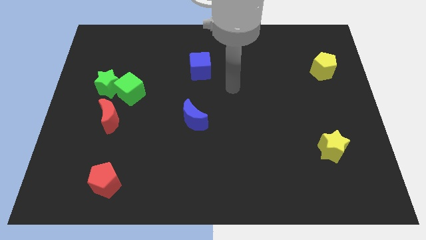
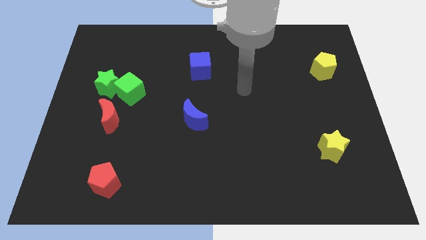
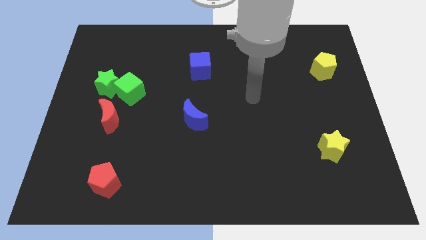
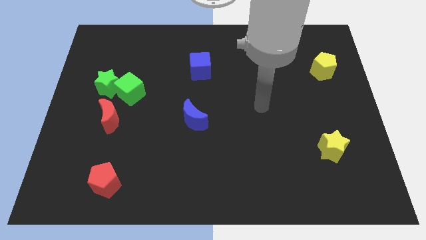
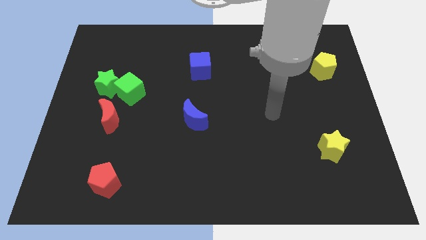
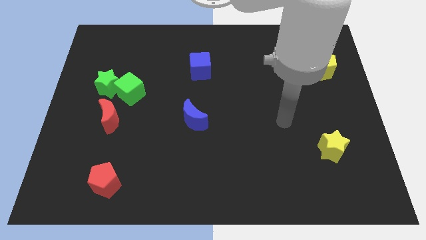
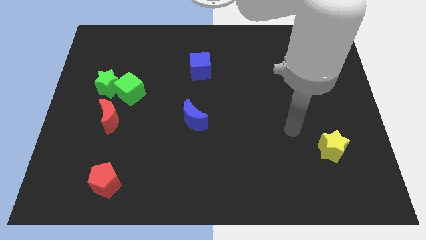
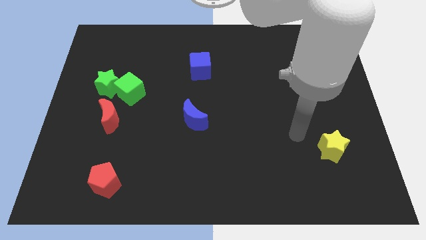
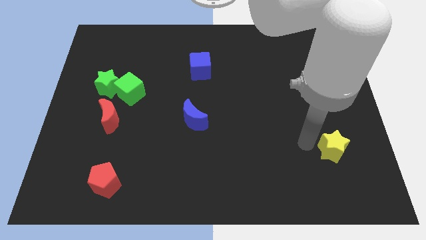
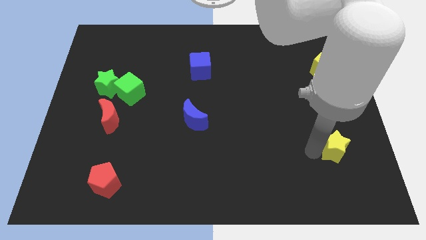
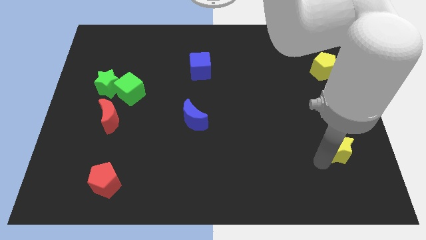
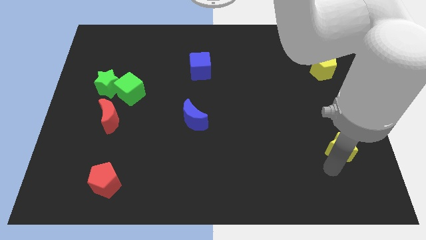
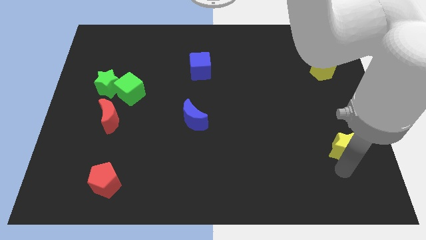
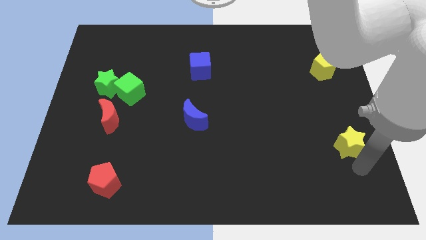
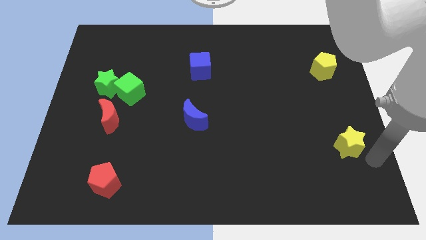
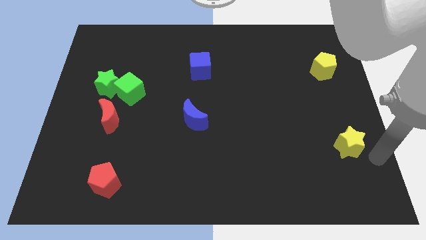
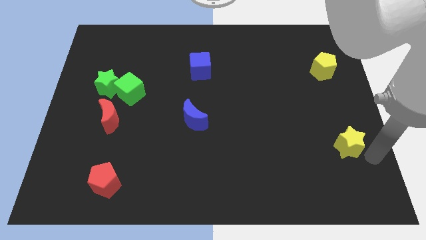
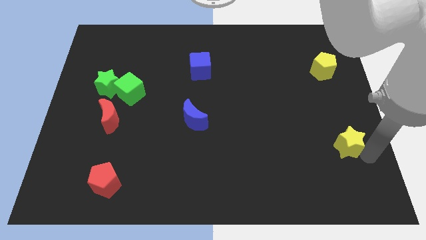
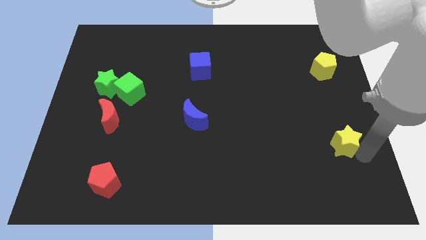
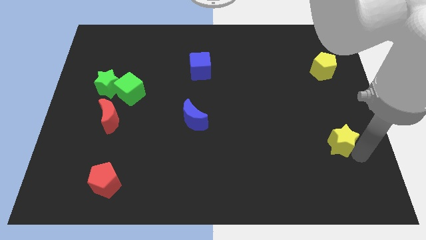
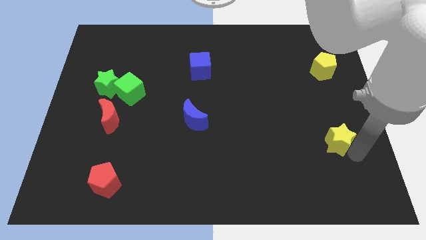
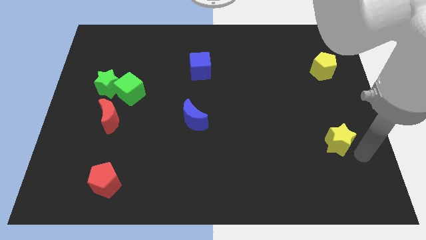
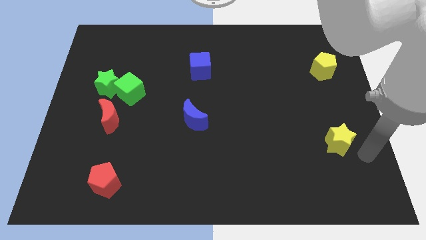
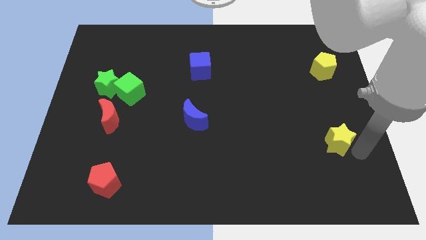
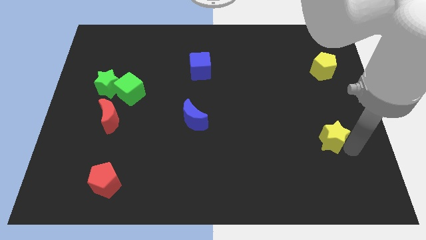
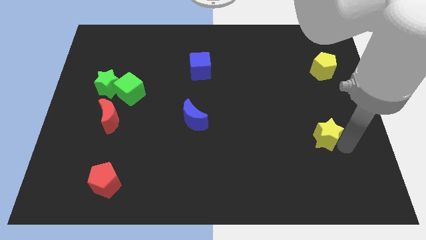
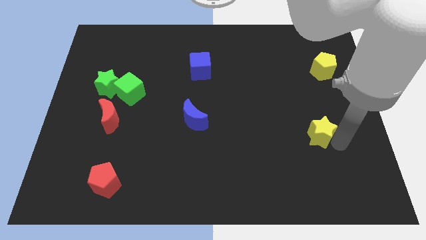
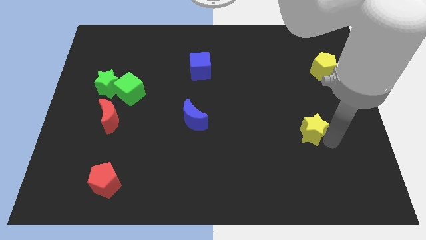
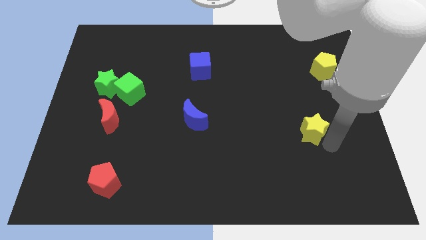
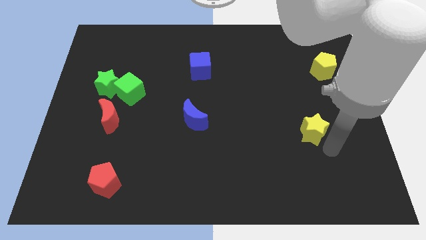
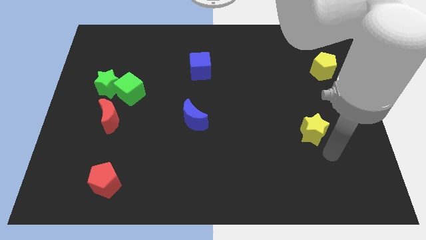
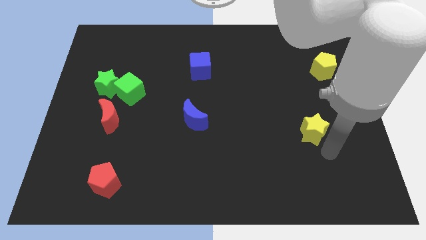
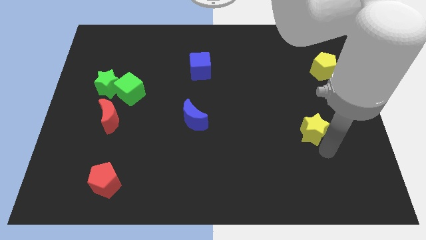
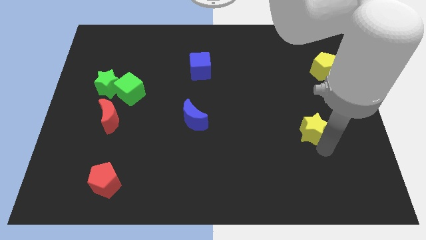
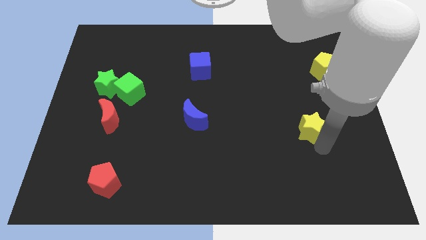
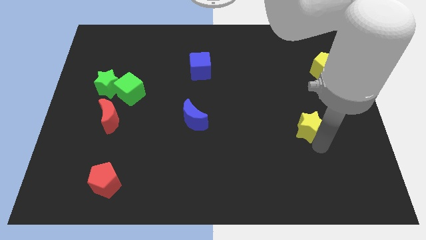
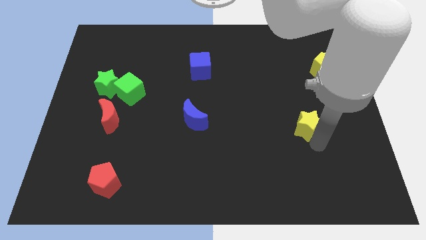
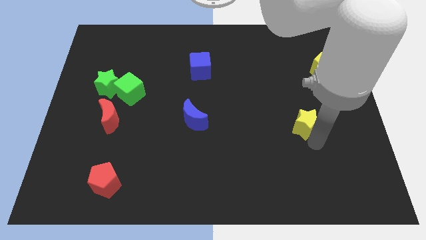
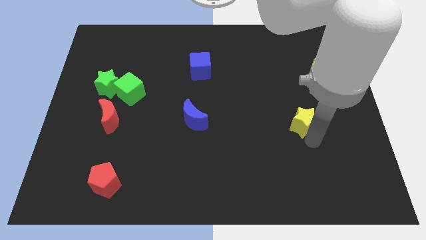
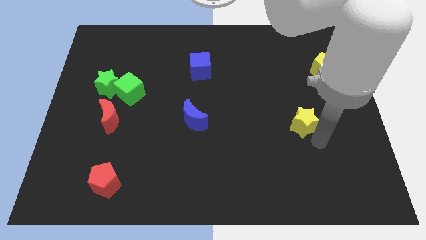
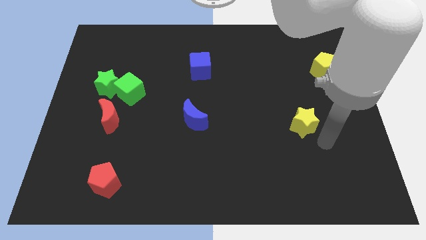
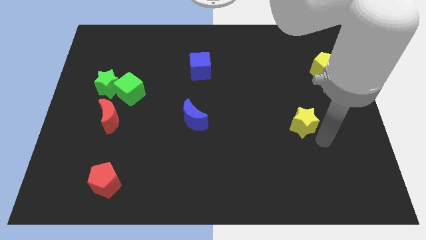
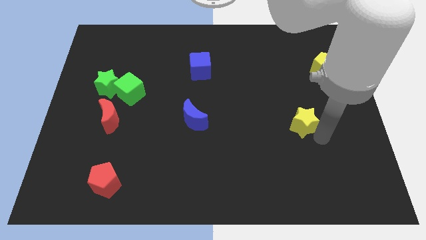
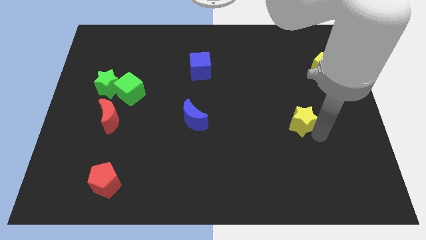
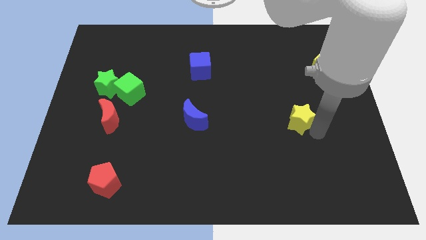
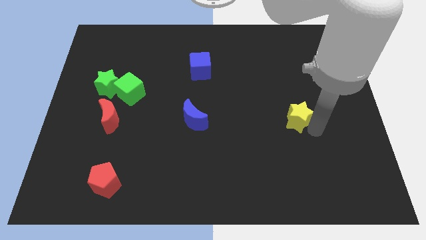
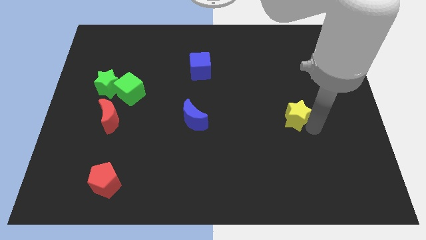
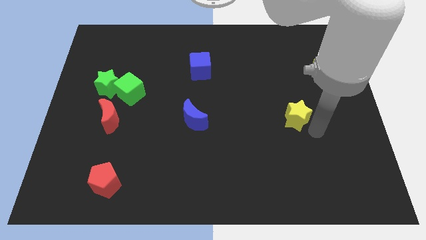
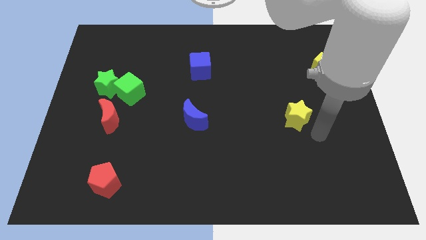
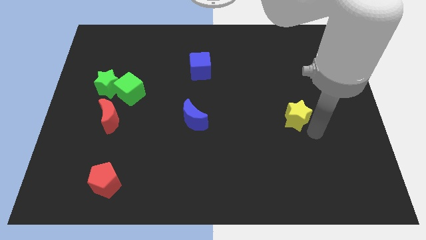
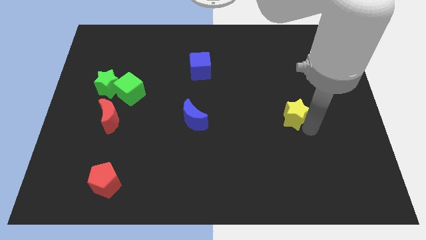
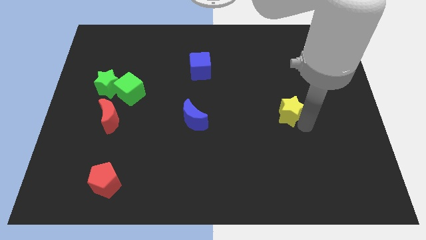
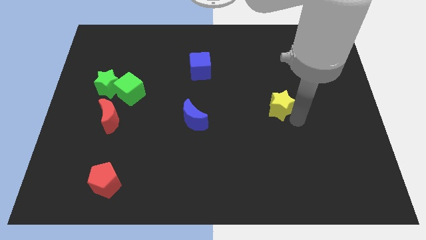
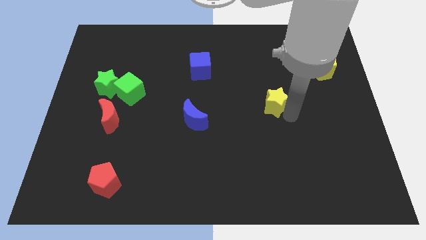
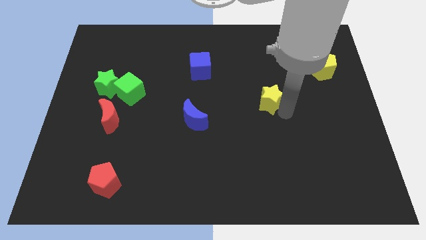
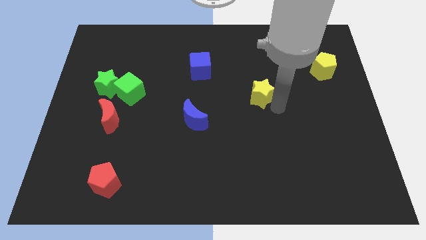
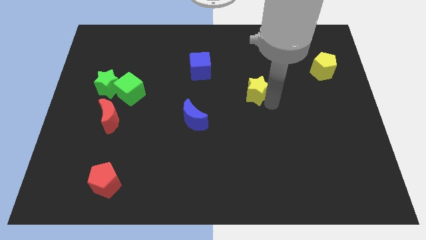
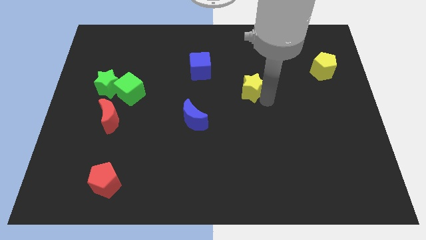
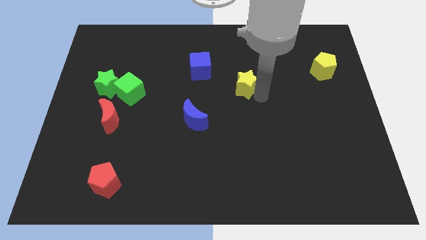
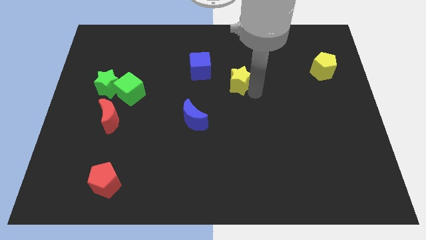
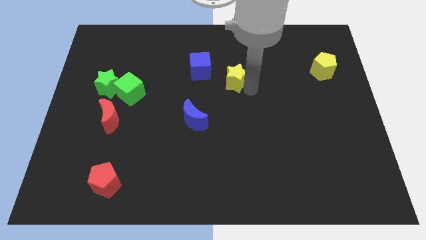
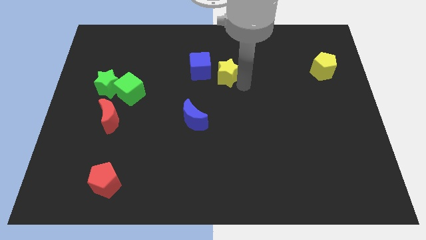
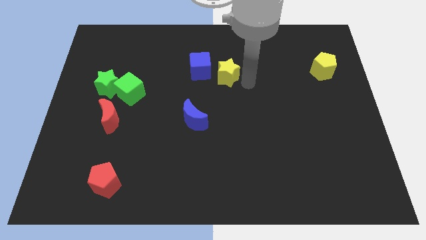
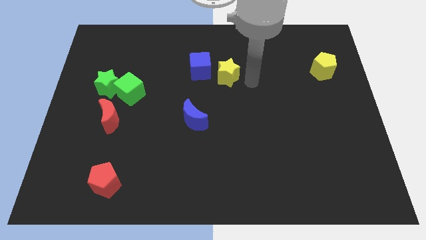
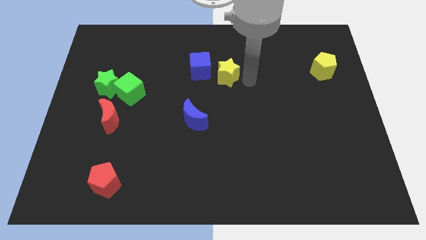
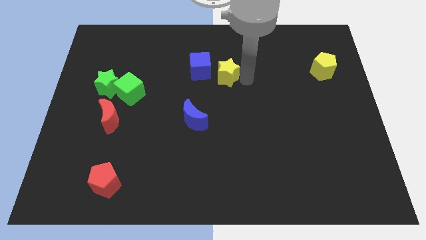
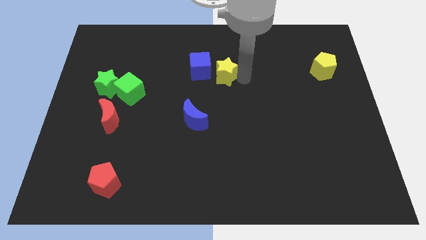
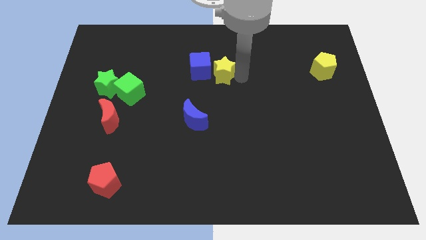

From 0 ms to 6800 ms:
put the yellow star to the blue cube

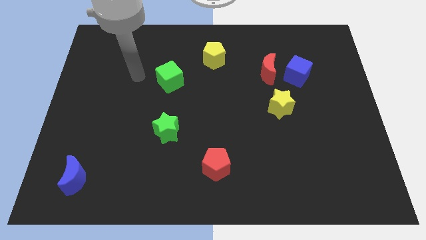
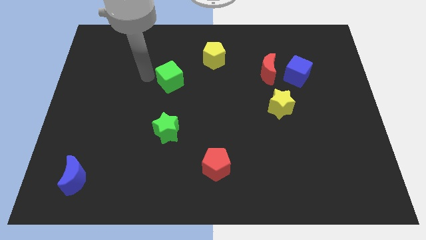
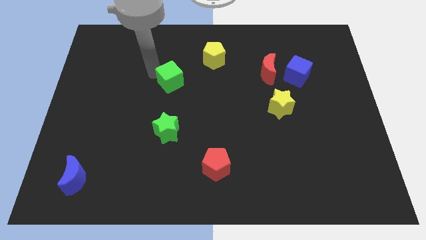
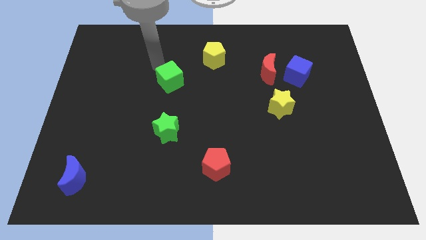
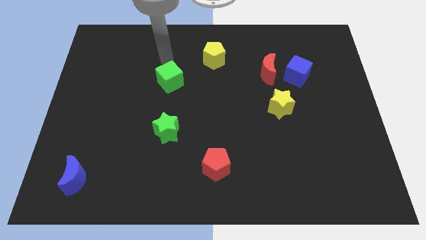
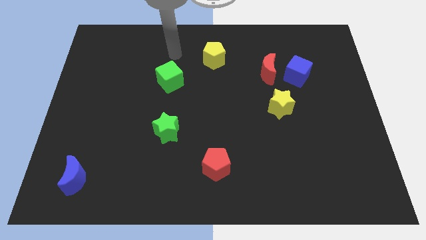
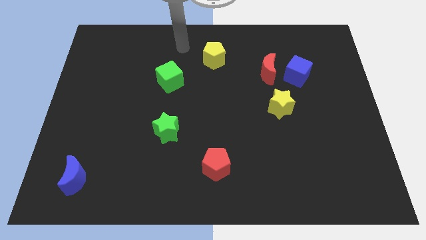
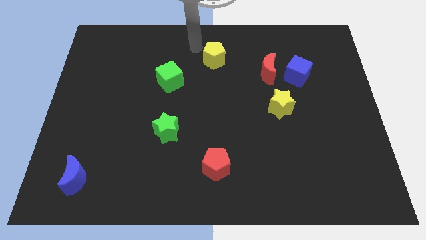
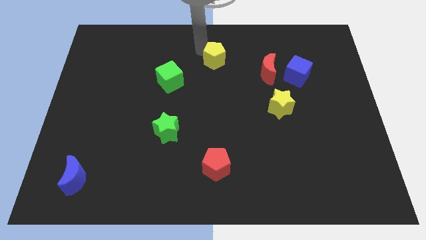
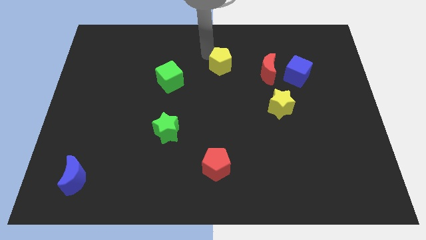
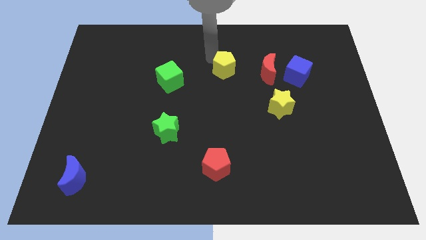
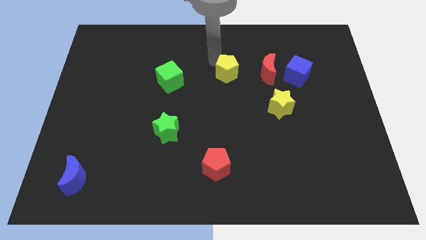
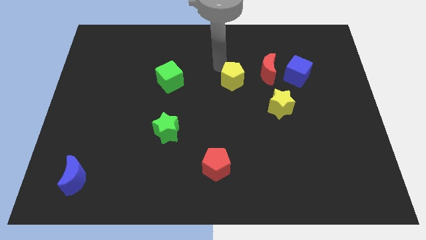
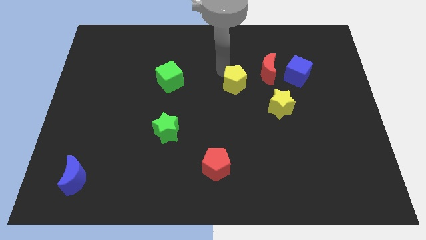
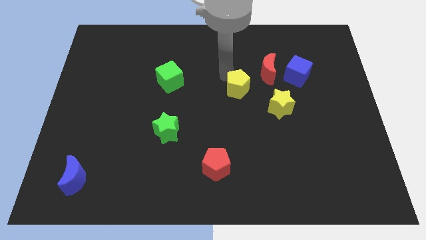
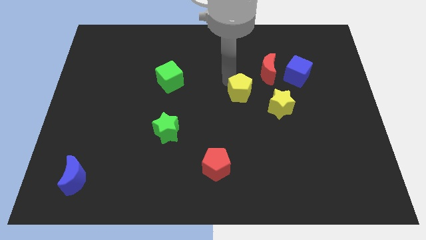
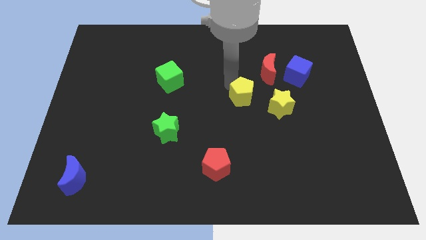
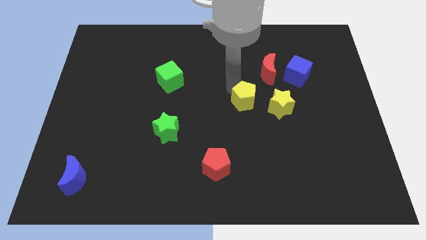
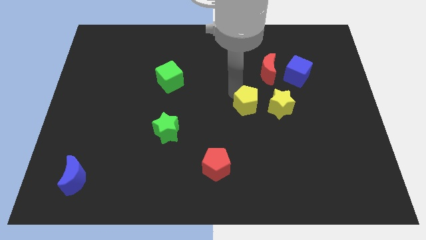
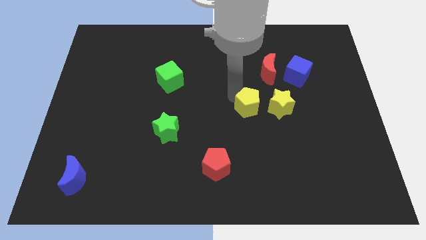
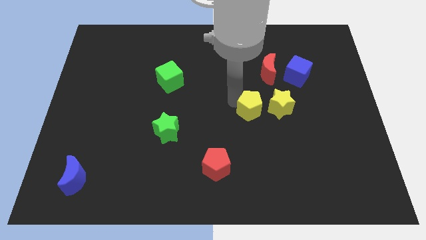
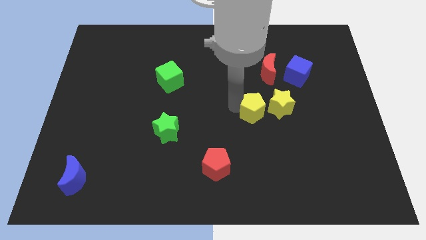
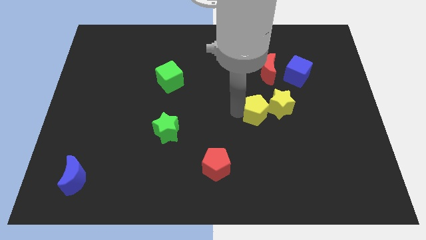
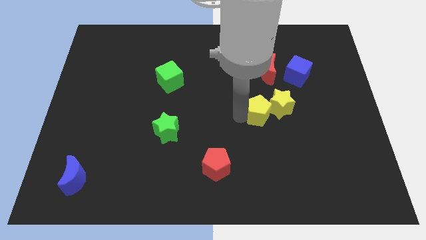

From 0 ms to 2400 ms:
push the yellow pentagon next to the yellow star
